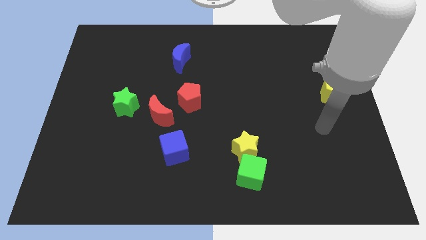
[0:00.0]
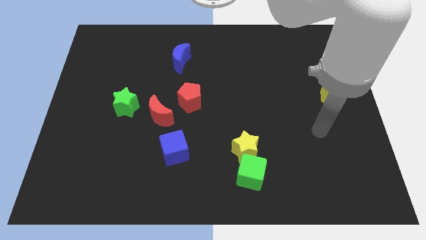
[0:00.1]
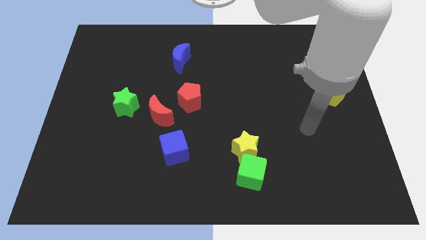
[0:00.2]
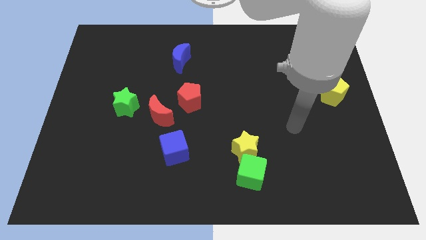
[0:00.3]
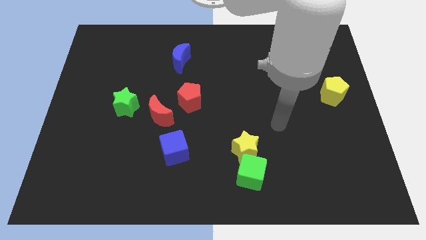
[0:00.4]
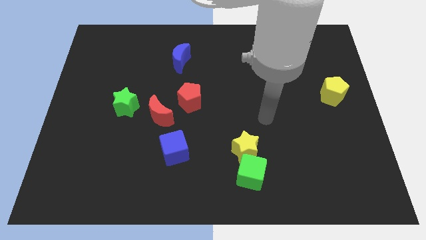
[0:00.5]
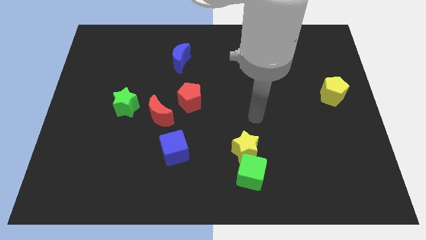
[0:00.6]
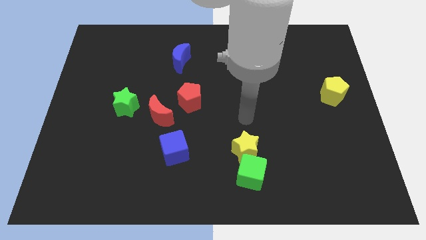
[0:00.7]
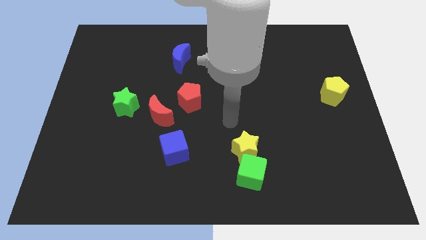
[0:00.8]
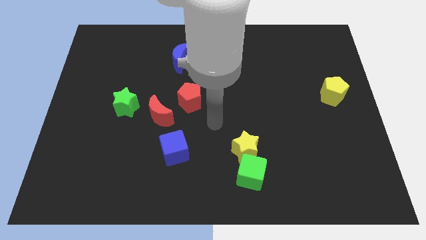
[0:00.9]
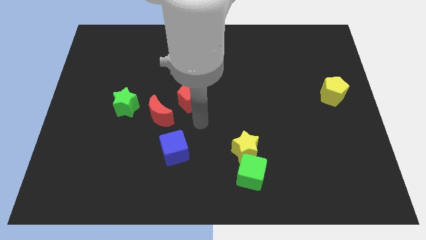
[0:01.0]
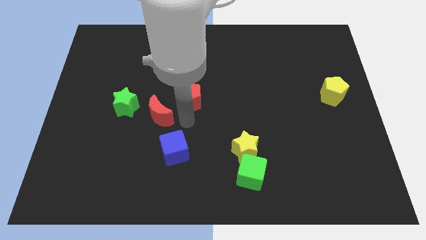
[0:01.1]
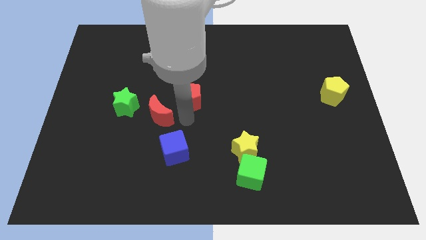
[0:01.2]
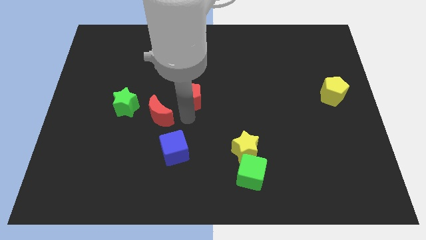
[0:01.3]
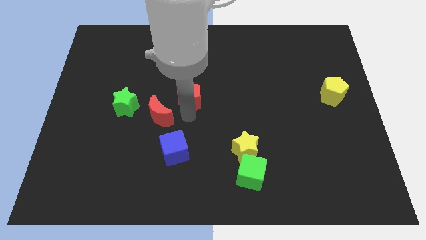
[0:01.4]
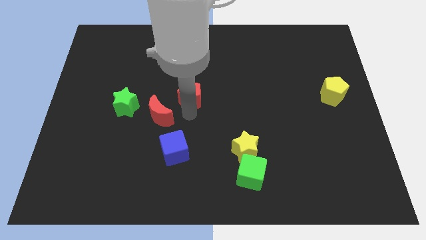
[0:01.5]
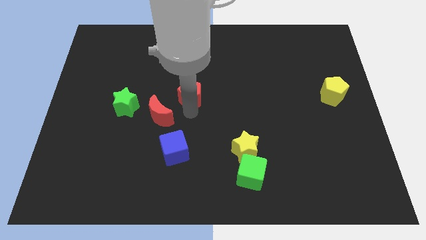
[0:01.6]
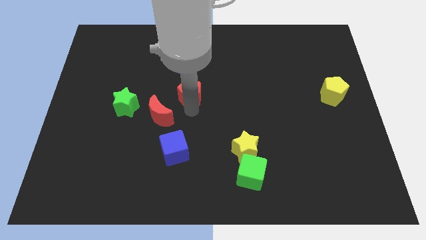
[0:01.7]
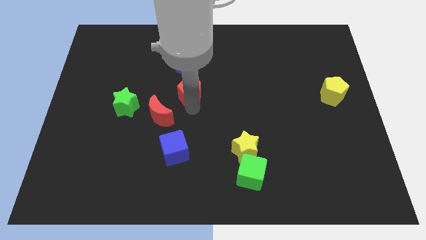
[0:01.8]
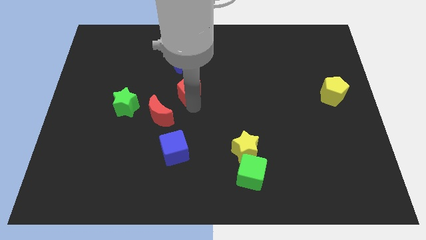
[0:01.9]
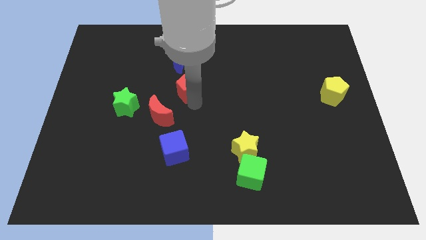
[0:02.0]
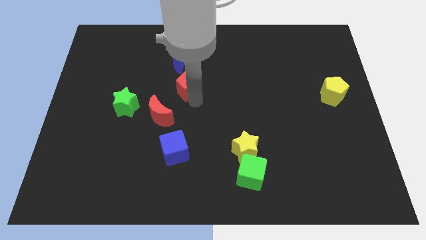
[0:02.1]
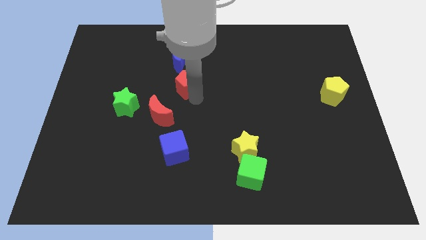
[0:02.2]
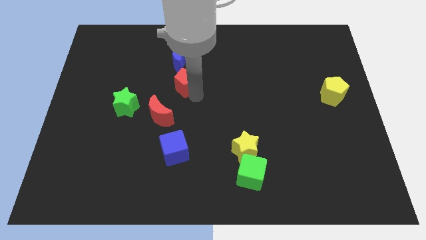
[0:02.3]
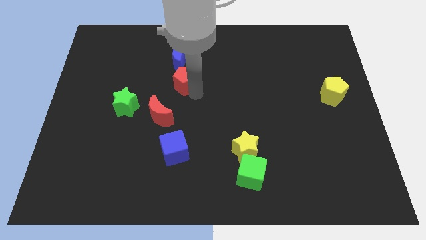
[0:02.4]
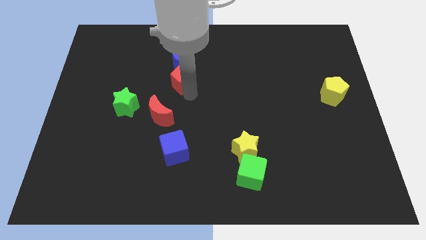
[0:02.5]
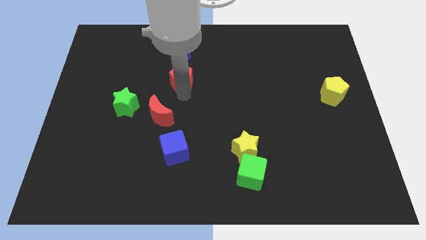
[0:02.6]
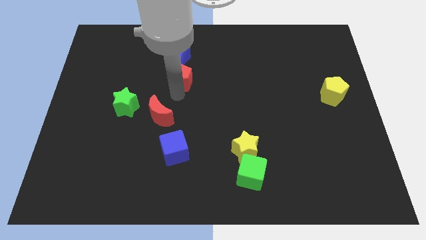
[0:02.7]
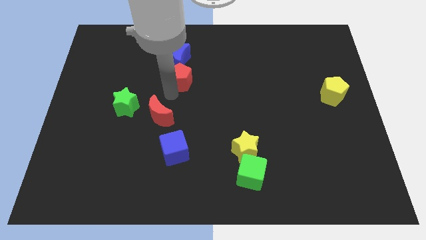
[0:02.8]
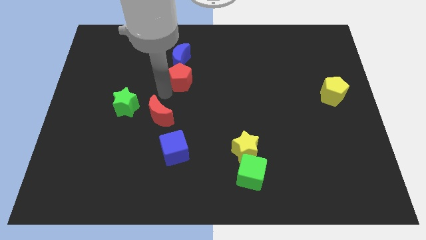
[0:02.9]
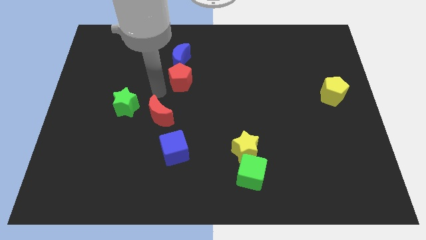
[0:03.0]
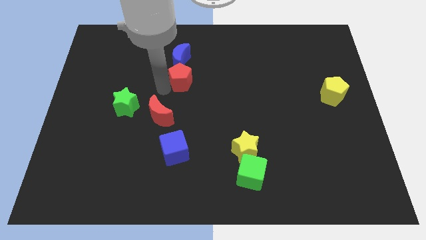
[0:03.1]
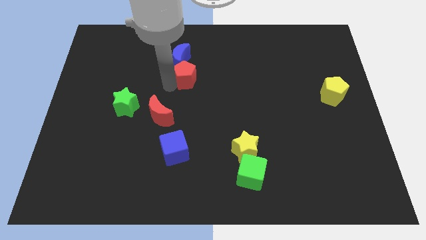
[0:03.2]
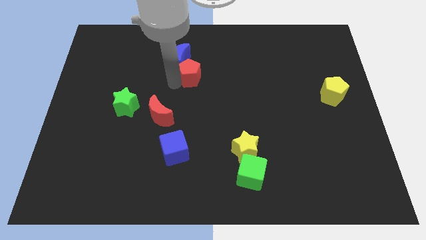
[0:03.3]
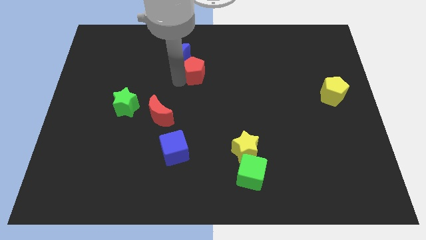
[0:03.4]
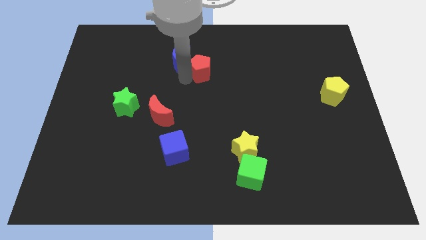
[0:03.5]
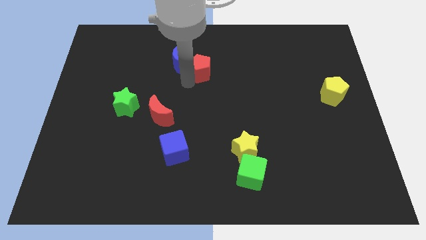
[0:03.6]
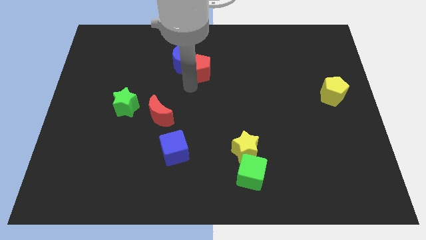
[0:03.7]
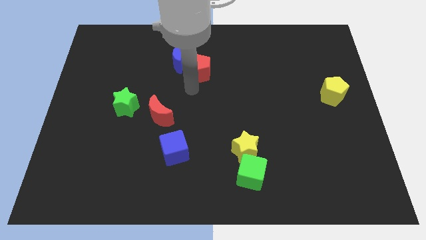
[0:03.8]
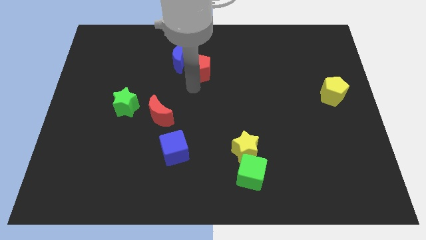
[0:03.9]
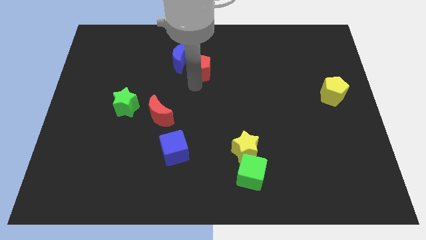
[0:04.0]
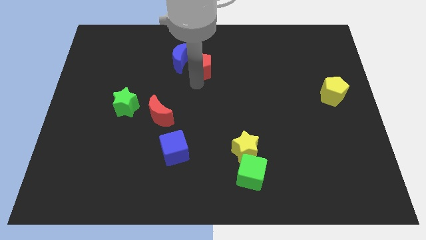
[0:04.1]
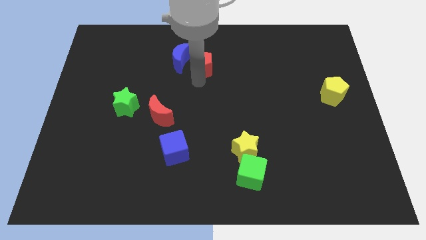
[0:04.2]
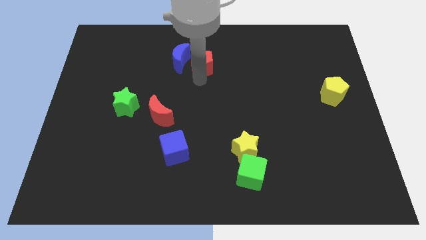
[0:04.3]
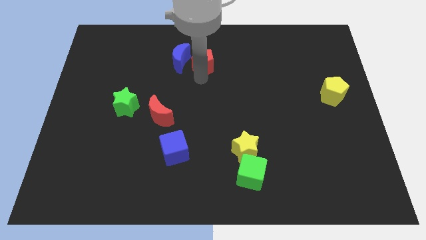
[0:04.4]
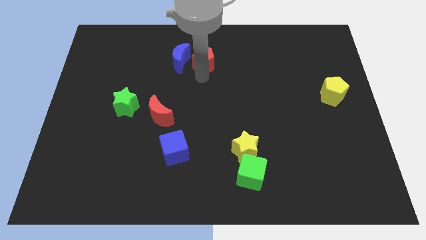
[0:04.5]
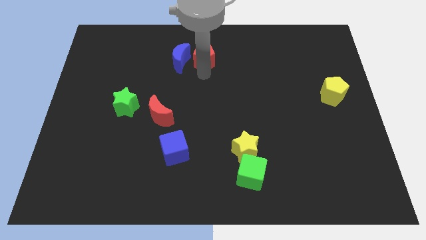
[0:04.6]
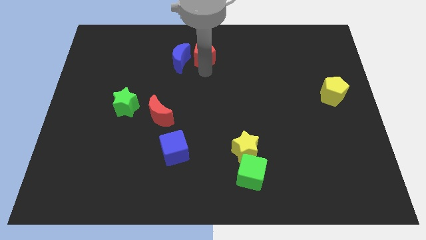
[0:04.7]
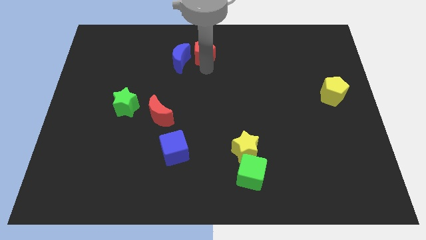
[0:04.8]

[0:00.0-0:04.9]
slide the red pentagon to the towards your base

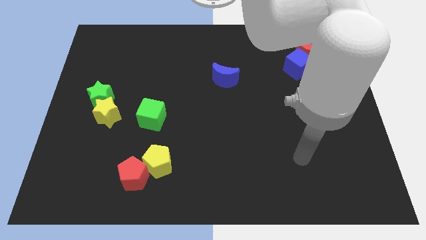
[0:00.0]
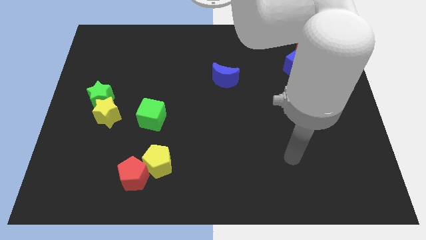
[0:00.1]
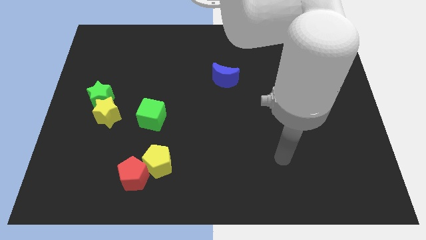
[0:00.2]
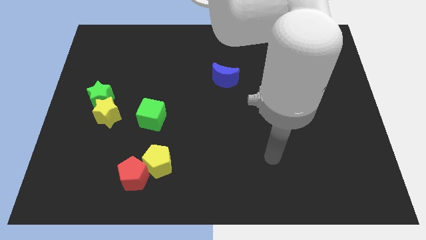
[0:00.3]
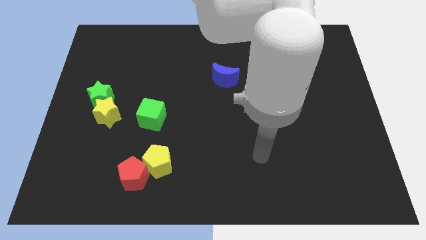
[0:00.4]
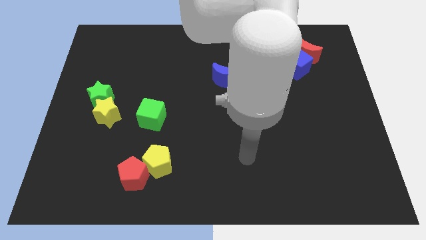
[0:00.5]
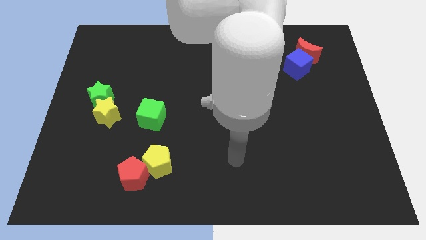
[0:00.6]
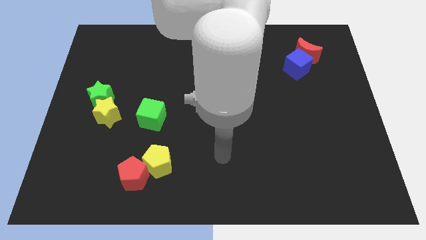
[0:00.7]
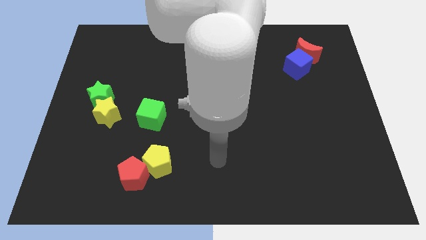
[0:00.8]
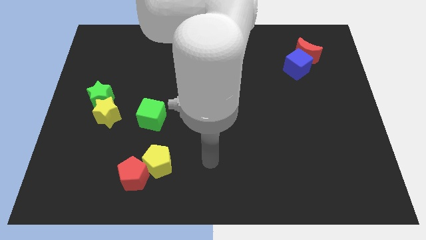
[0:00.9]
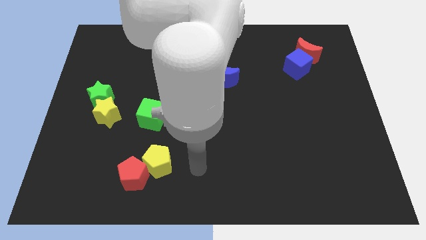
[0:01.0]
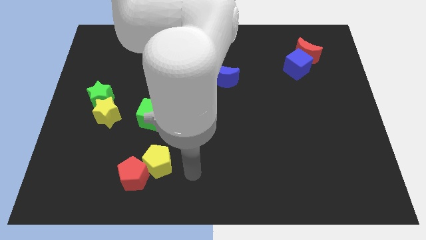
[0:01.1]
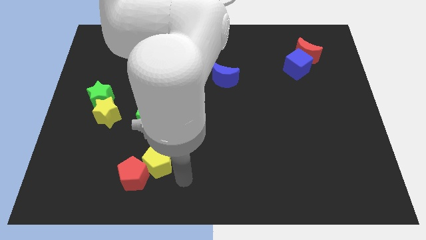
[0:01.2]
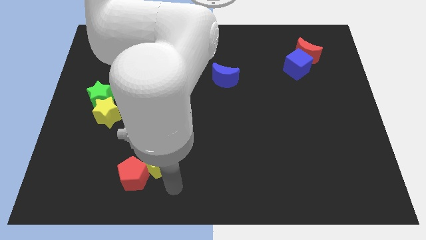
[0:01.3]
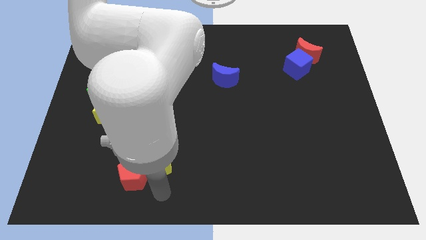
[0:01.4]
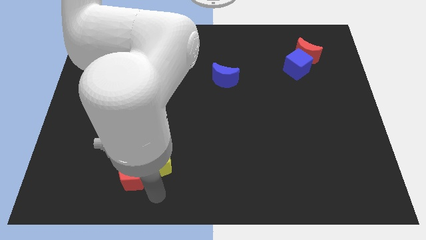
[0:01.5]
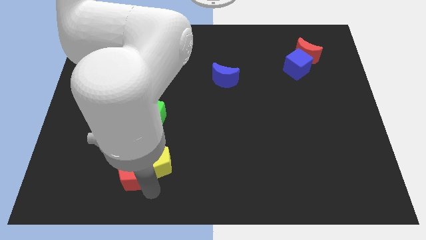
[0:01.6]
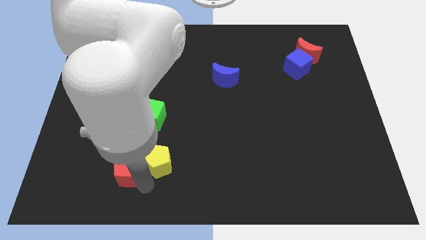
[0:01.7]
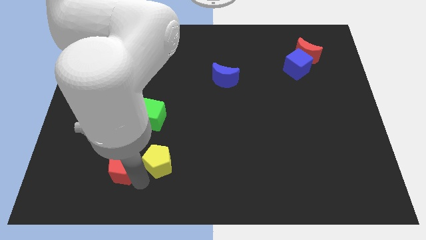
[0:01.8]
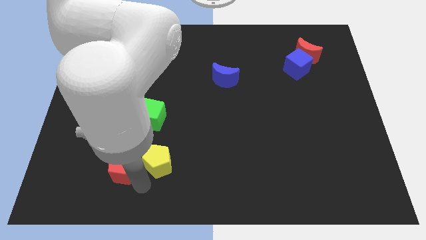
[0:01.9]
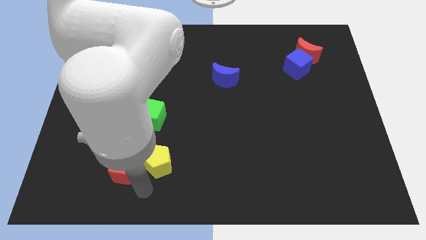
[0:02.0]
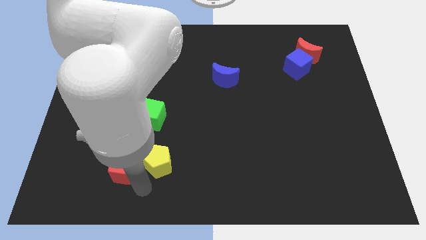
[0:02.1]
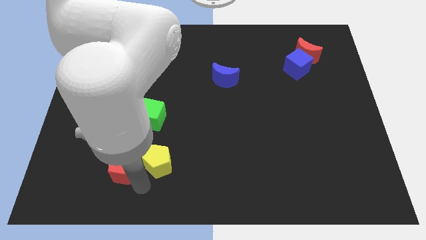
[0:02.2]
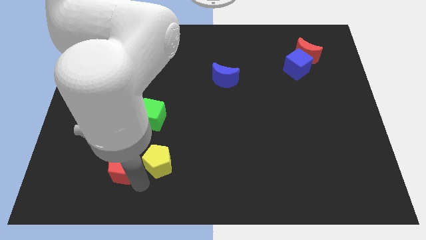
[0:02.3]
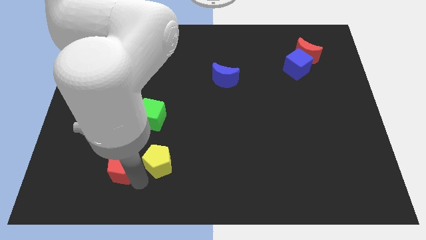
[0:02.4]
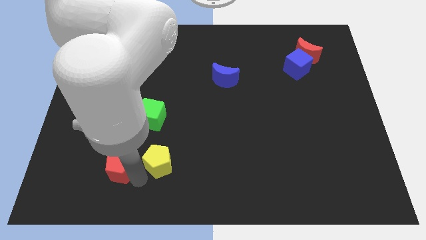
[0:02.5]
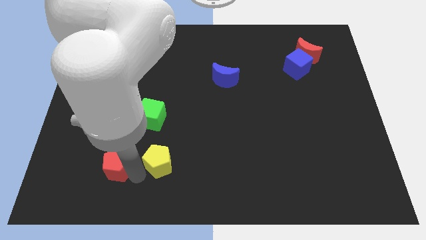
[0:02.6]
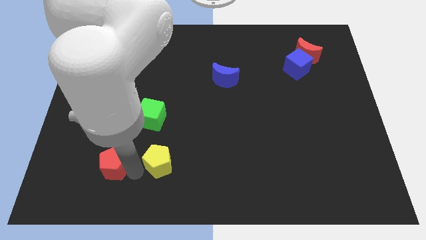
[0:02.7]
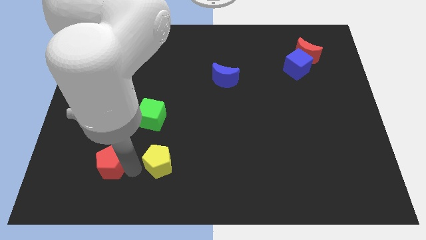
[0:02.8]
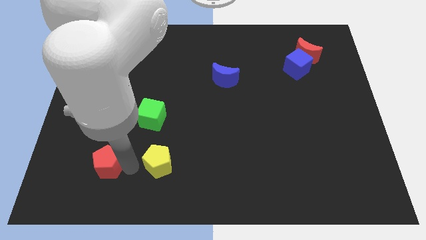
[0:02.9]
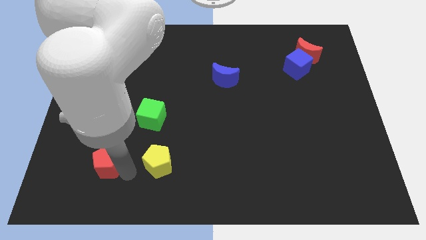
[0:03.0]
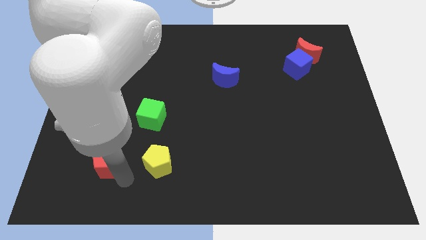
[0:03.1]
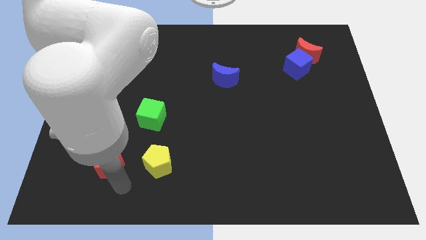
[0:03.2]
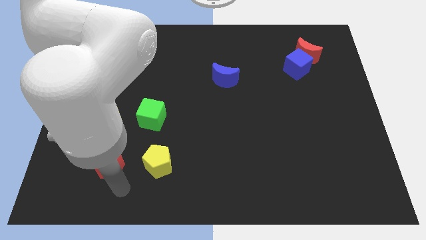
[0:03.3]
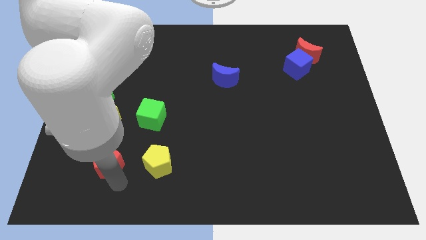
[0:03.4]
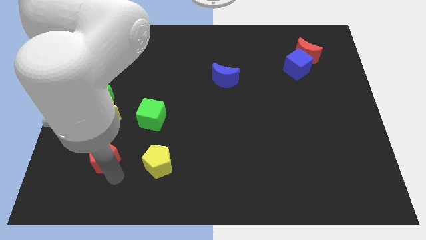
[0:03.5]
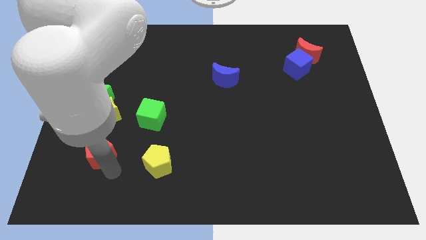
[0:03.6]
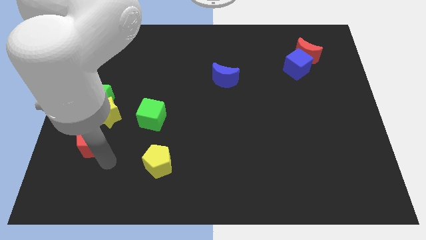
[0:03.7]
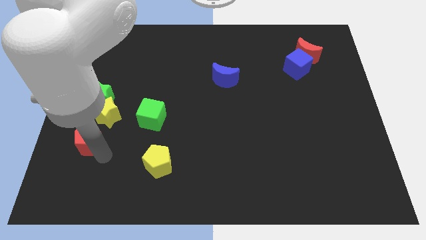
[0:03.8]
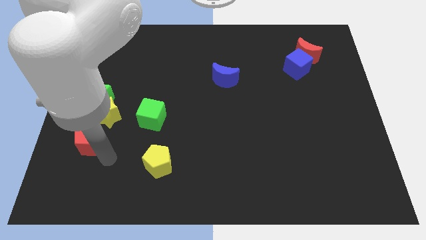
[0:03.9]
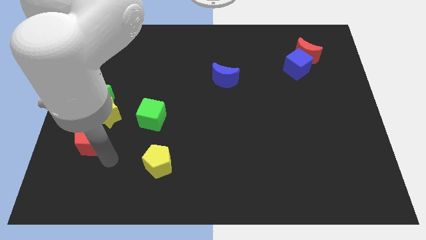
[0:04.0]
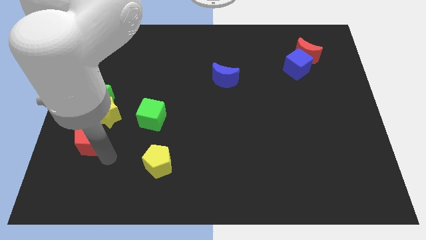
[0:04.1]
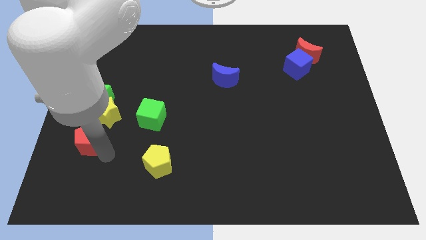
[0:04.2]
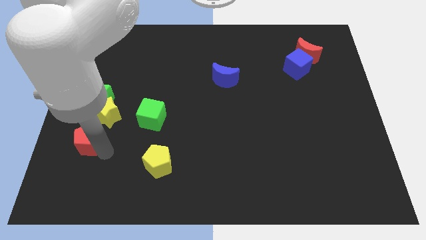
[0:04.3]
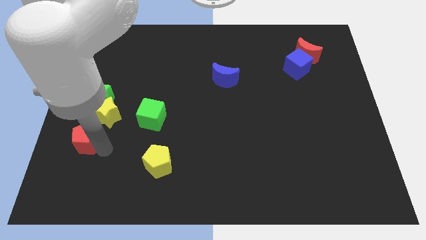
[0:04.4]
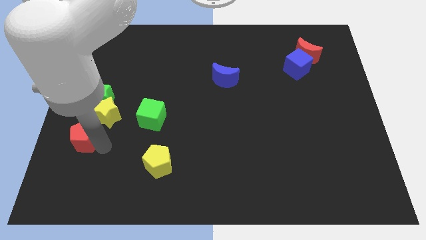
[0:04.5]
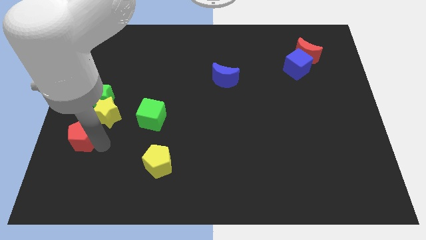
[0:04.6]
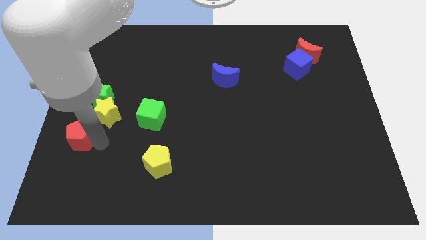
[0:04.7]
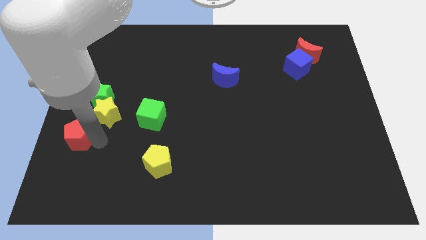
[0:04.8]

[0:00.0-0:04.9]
slide the red pentagon to the left side of the board
